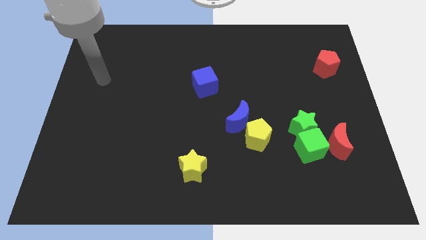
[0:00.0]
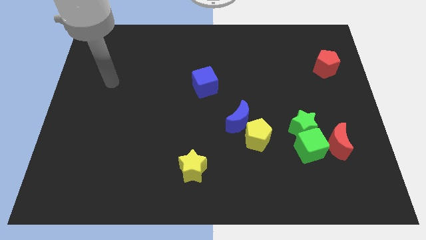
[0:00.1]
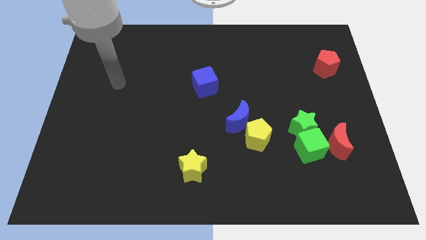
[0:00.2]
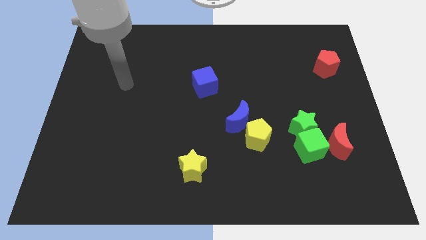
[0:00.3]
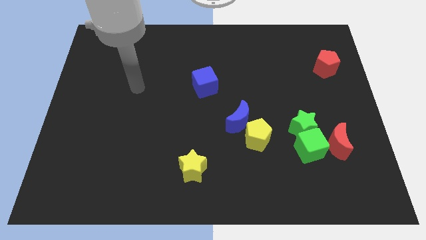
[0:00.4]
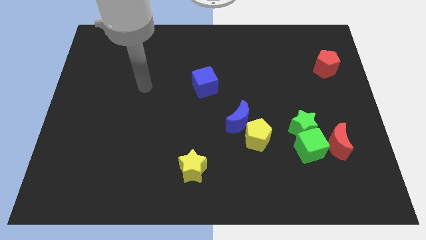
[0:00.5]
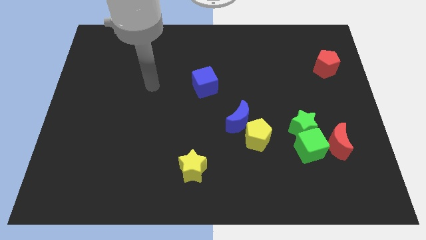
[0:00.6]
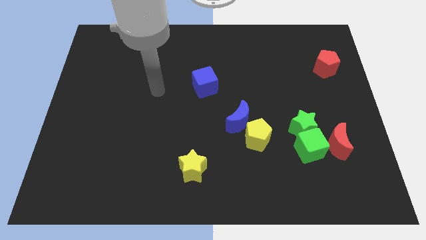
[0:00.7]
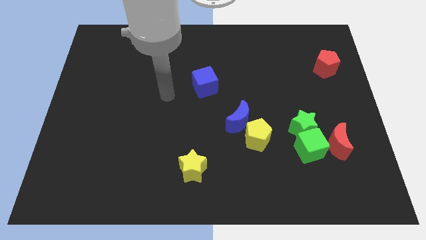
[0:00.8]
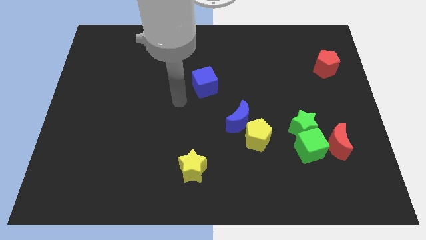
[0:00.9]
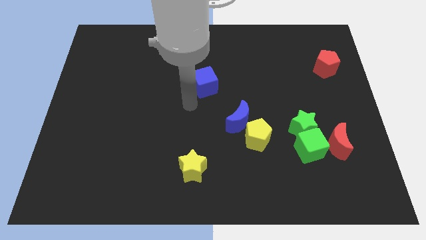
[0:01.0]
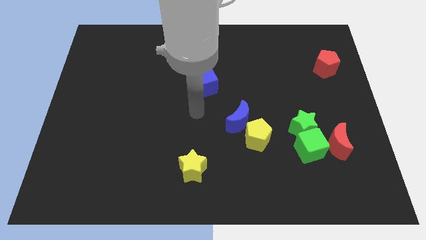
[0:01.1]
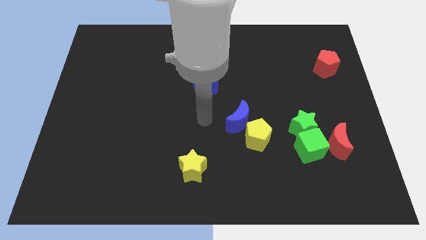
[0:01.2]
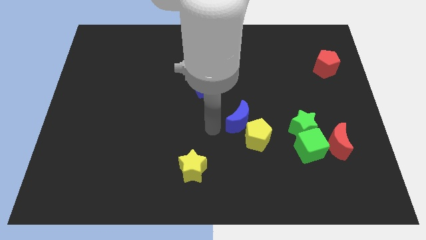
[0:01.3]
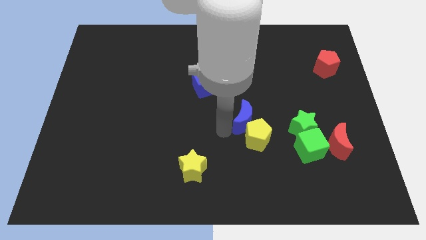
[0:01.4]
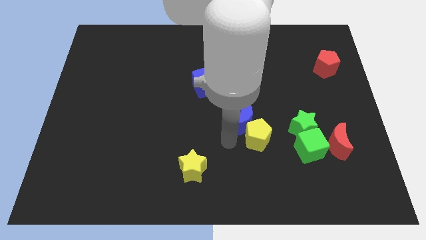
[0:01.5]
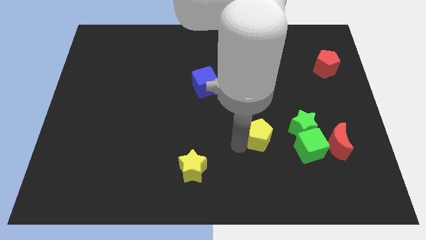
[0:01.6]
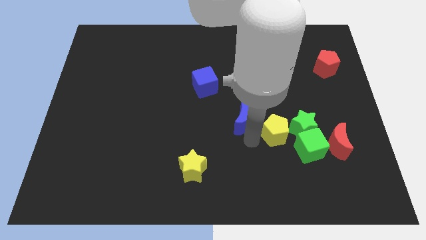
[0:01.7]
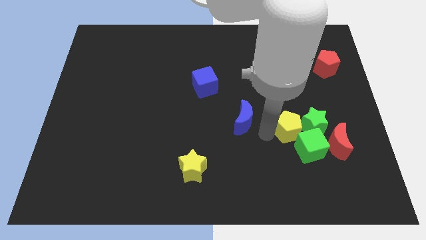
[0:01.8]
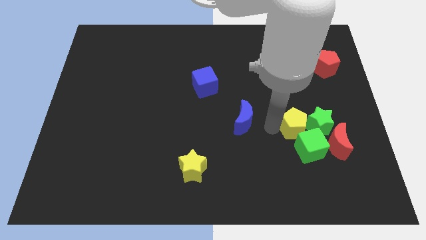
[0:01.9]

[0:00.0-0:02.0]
pull the blue moon apart from the yellow pentagon

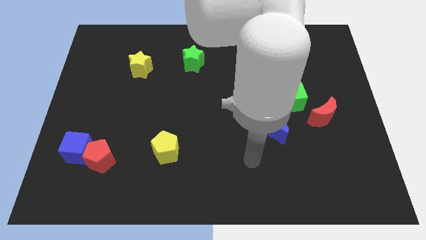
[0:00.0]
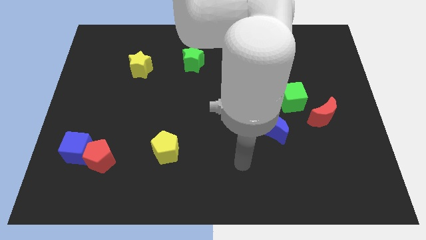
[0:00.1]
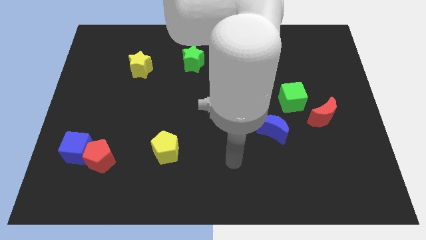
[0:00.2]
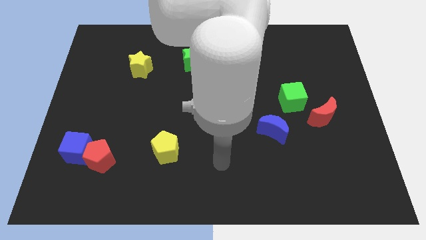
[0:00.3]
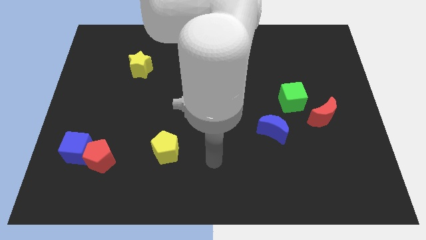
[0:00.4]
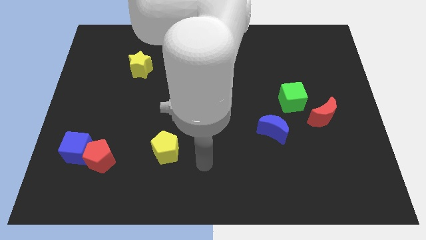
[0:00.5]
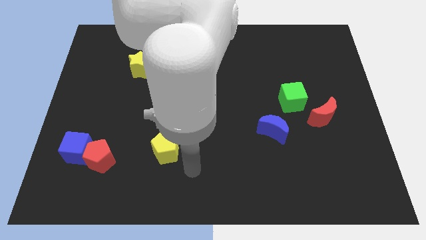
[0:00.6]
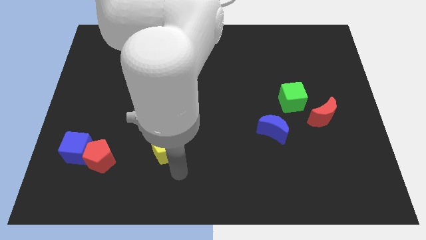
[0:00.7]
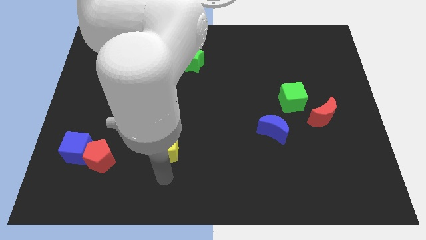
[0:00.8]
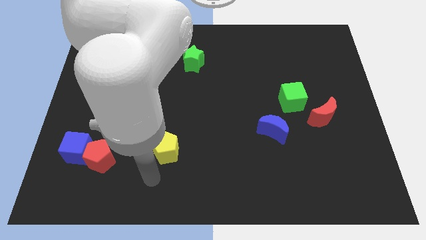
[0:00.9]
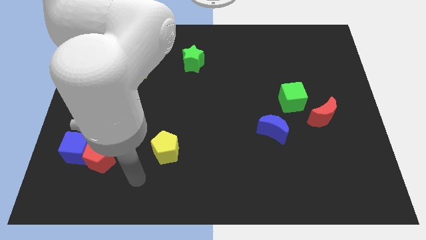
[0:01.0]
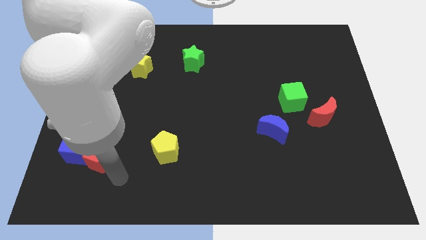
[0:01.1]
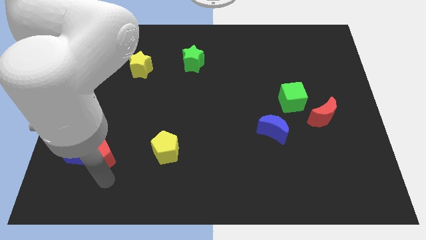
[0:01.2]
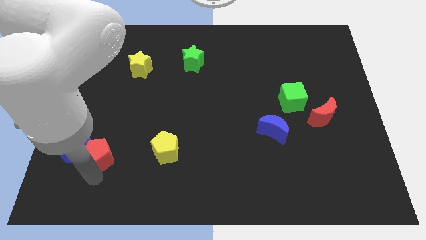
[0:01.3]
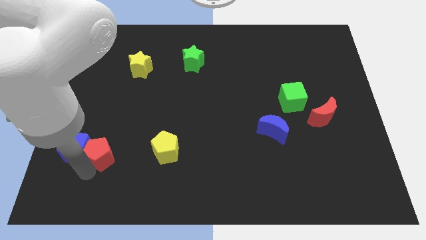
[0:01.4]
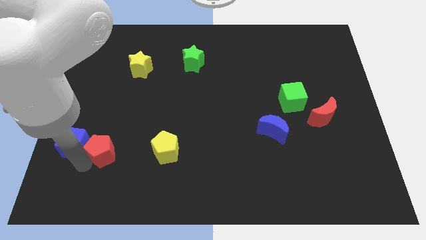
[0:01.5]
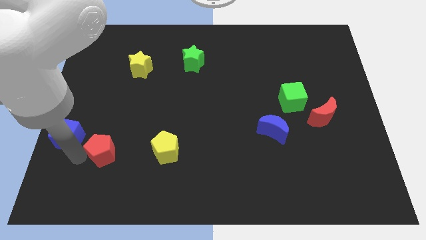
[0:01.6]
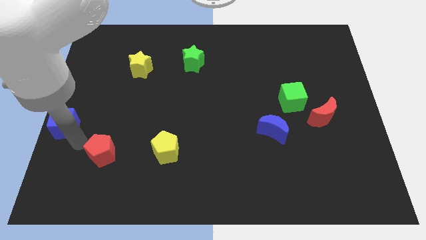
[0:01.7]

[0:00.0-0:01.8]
pull the red pentagon apart from the blue cube

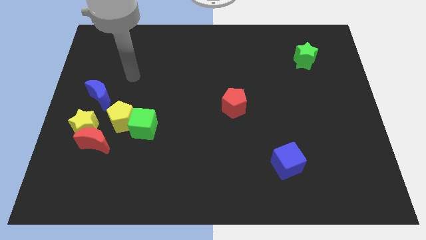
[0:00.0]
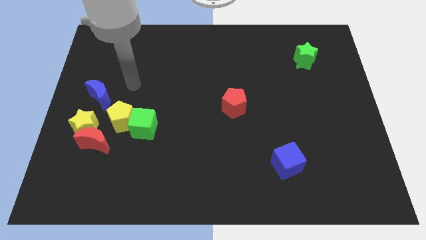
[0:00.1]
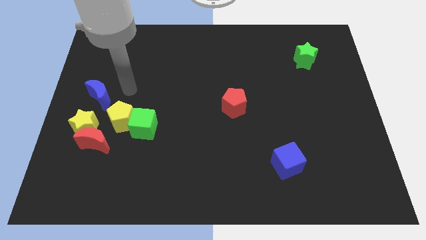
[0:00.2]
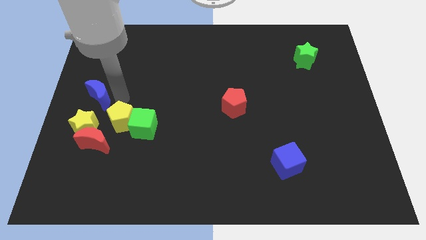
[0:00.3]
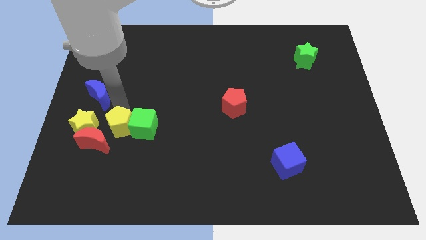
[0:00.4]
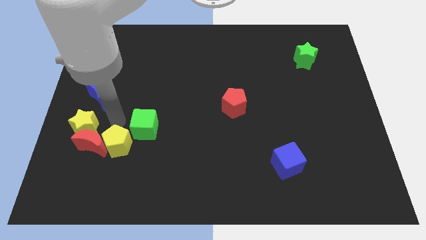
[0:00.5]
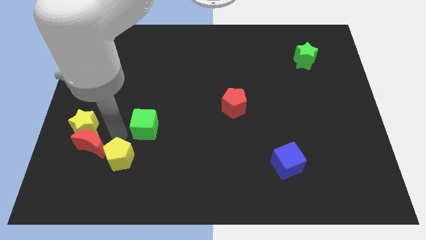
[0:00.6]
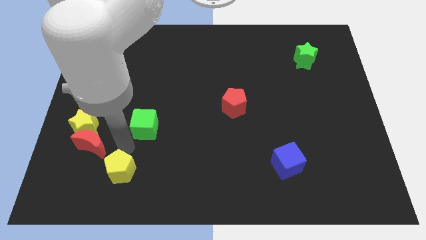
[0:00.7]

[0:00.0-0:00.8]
move the green cube away from the yellow pentagon

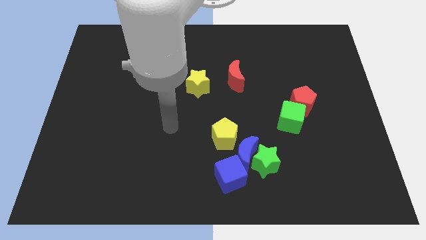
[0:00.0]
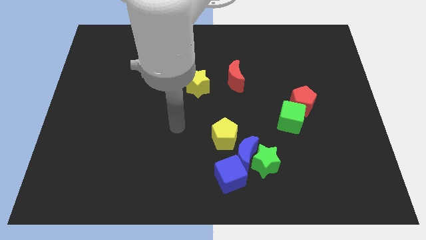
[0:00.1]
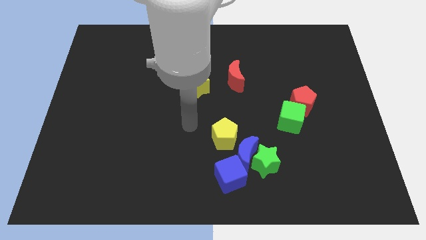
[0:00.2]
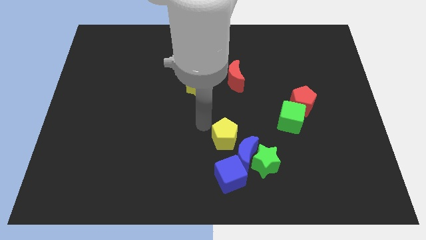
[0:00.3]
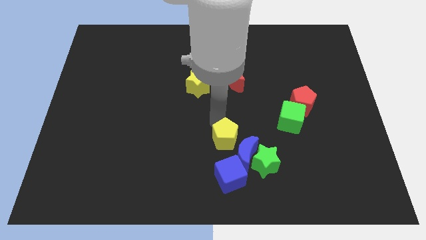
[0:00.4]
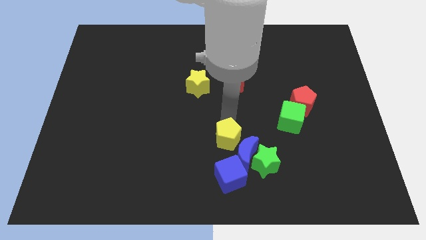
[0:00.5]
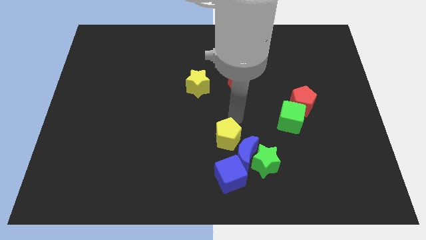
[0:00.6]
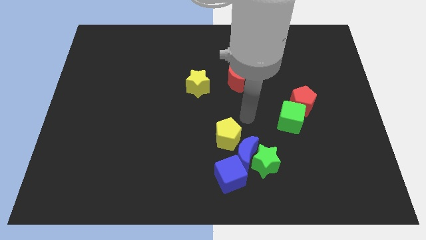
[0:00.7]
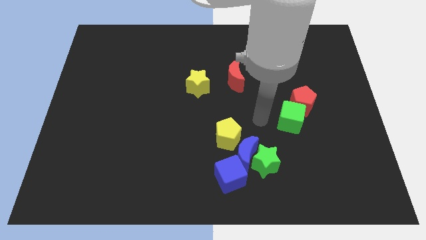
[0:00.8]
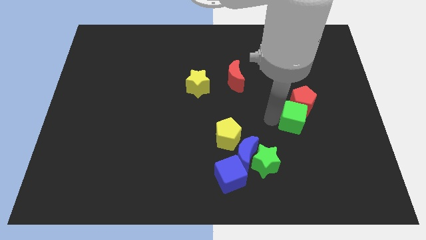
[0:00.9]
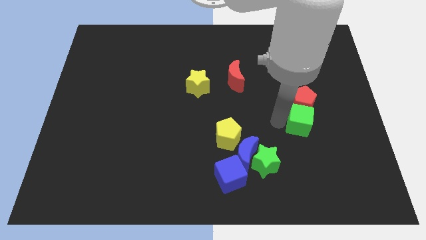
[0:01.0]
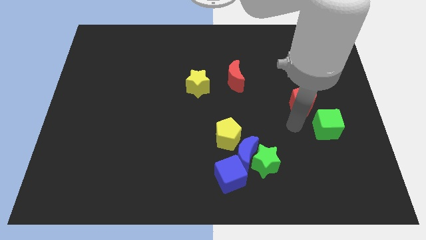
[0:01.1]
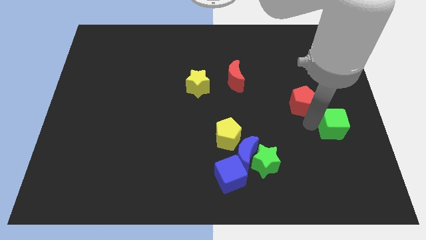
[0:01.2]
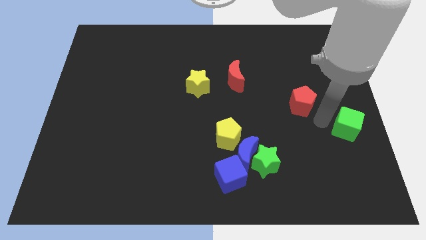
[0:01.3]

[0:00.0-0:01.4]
separate the red pentagon from the green cube

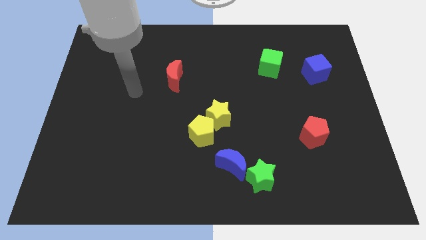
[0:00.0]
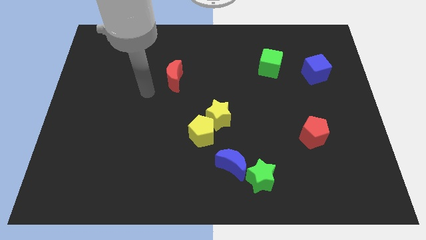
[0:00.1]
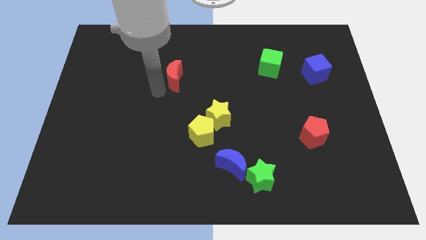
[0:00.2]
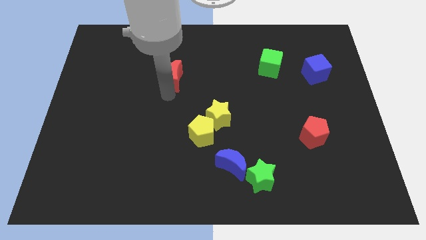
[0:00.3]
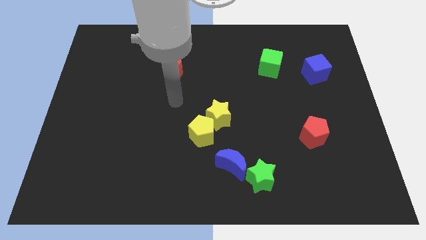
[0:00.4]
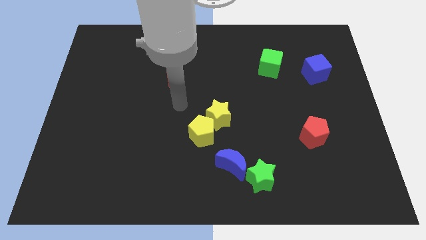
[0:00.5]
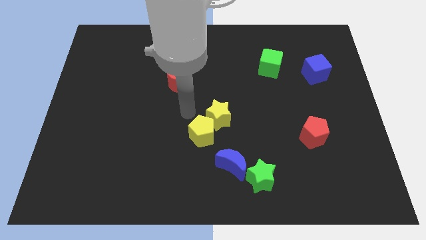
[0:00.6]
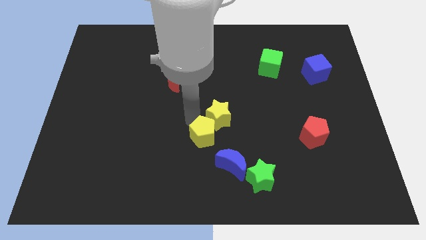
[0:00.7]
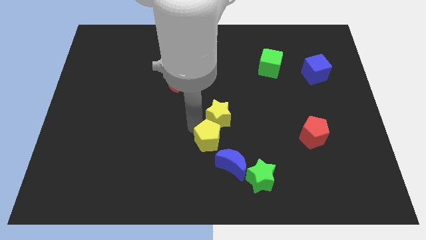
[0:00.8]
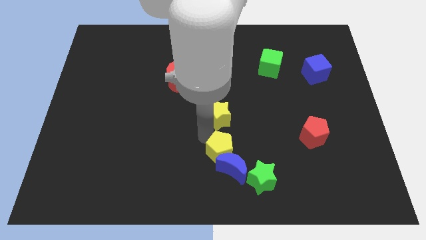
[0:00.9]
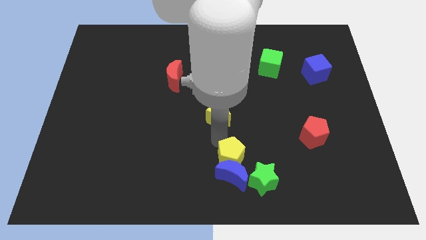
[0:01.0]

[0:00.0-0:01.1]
separate the yellow star from the yellow pentagon

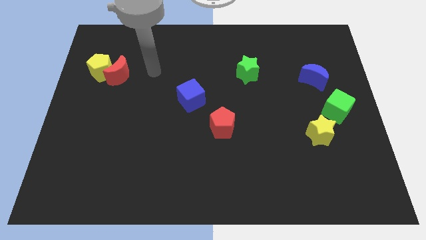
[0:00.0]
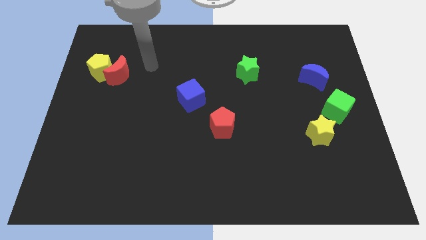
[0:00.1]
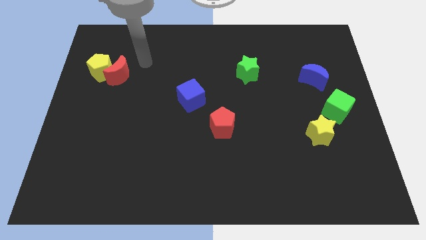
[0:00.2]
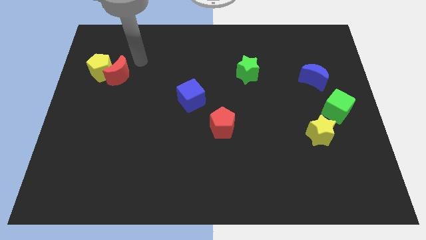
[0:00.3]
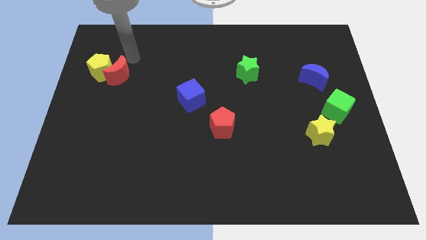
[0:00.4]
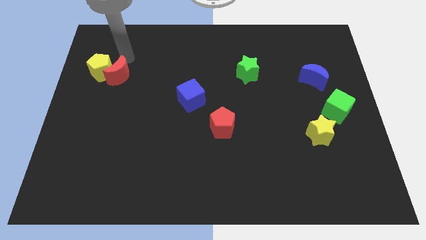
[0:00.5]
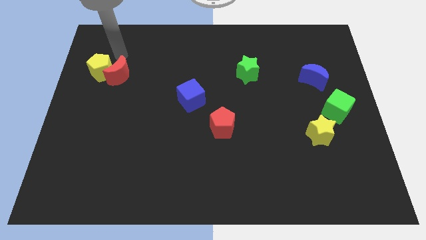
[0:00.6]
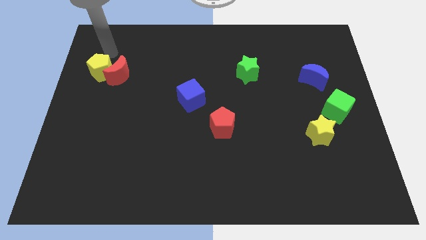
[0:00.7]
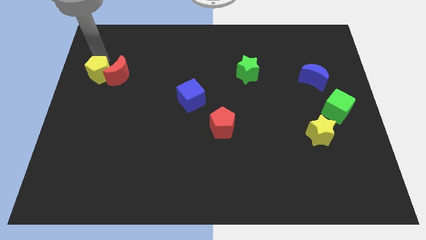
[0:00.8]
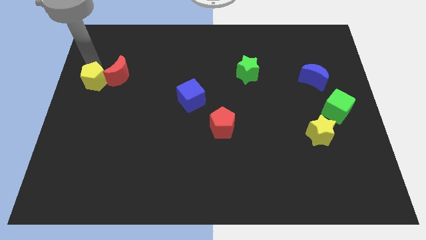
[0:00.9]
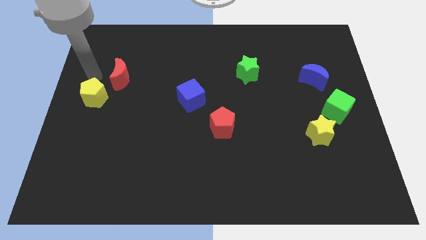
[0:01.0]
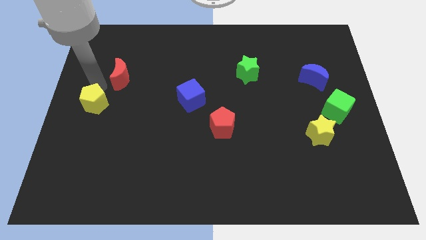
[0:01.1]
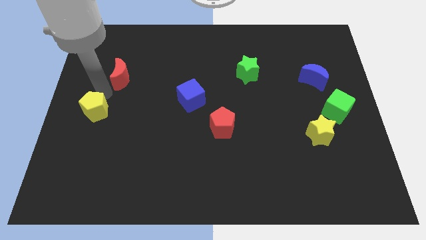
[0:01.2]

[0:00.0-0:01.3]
separate the red moon from the yellow pentagon

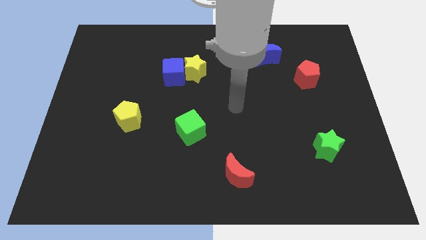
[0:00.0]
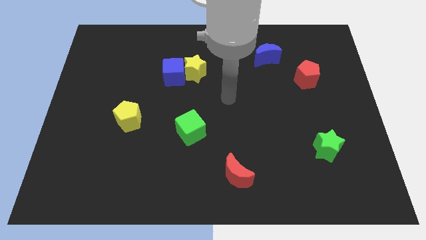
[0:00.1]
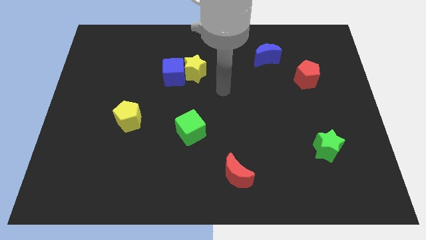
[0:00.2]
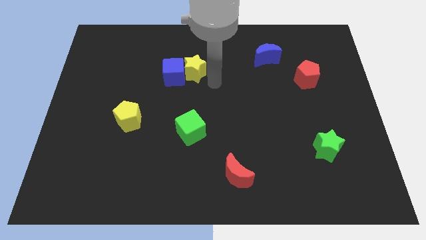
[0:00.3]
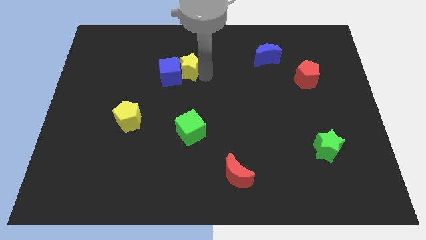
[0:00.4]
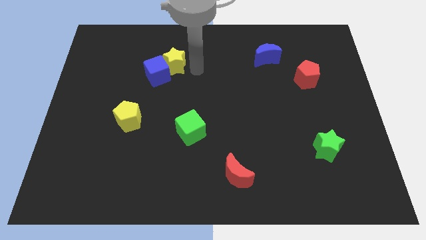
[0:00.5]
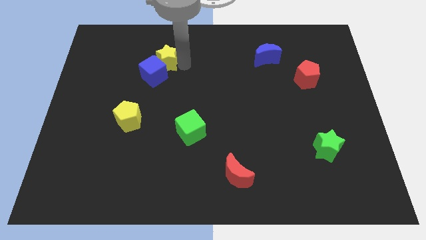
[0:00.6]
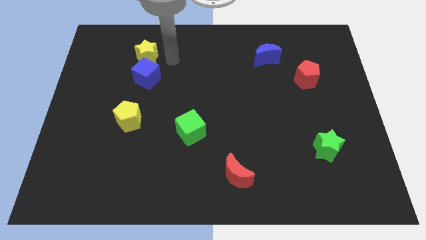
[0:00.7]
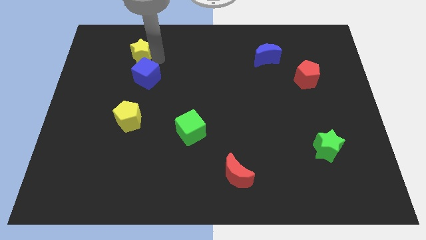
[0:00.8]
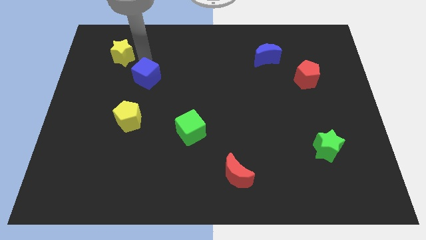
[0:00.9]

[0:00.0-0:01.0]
move the blue cube away from the yellow star
